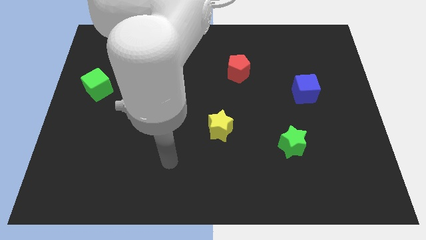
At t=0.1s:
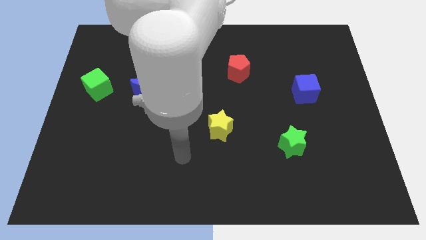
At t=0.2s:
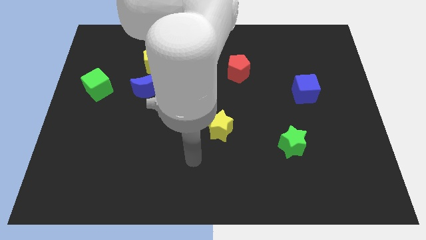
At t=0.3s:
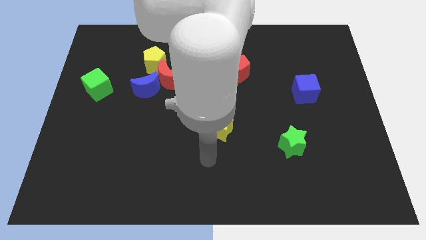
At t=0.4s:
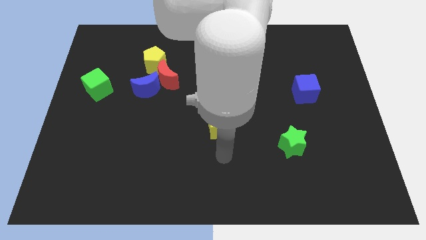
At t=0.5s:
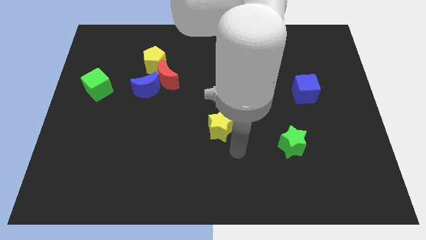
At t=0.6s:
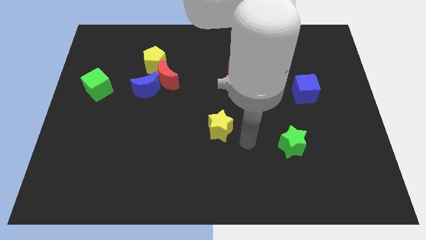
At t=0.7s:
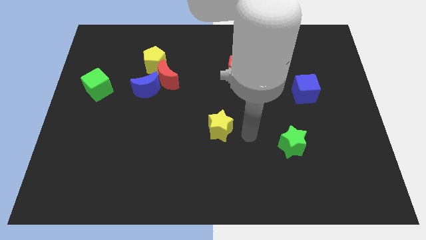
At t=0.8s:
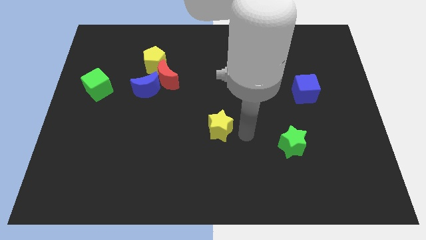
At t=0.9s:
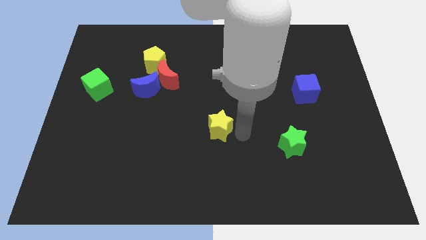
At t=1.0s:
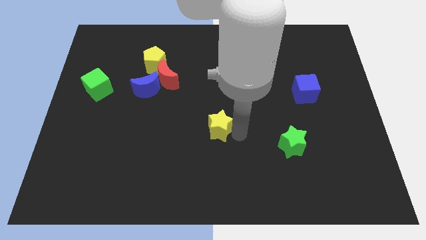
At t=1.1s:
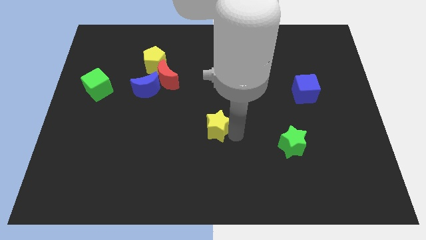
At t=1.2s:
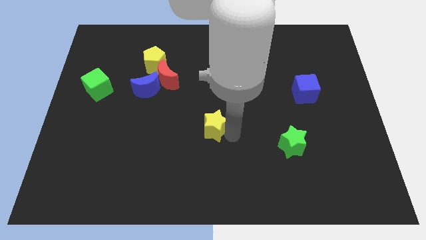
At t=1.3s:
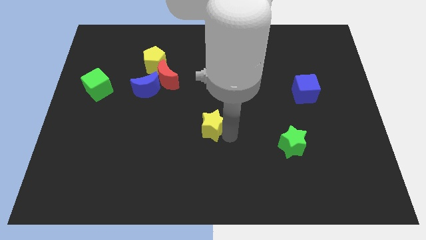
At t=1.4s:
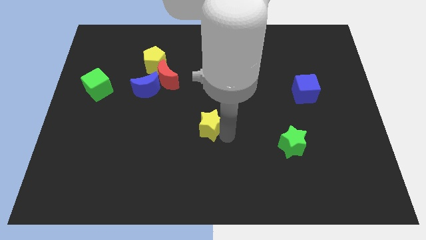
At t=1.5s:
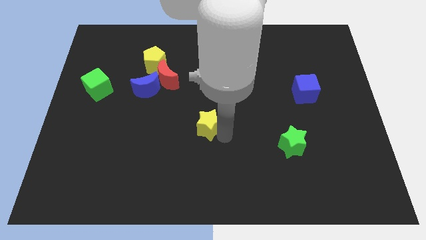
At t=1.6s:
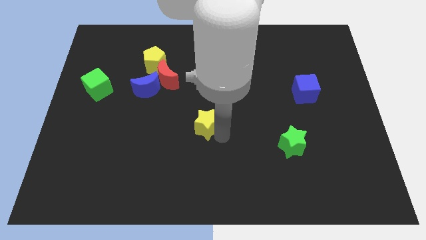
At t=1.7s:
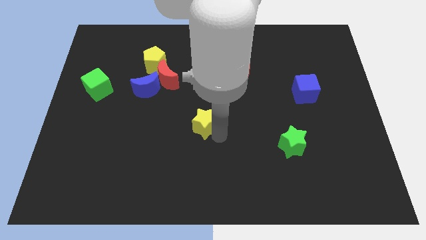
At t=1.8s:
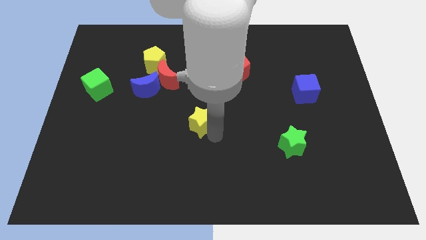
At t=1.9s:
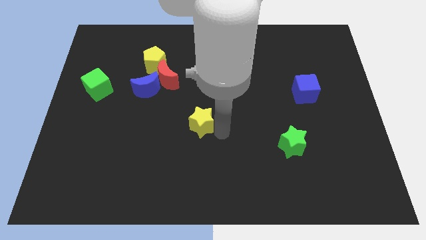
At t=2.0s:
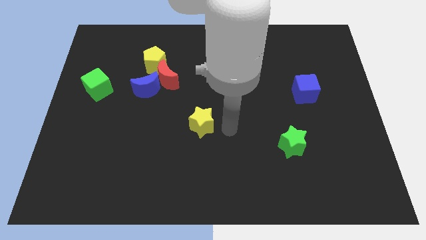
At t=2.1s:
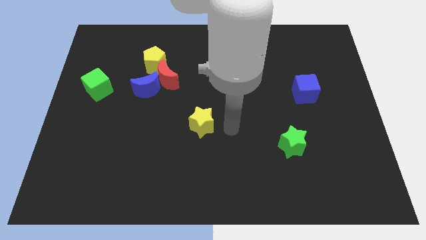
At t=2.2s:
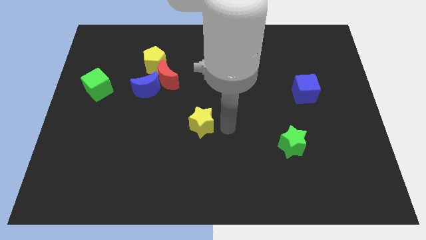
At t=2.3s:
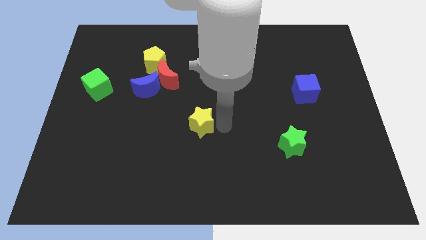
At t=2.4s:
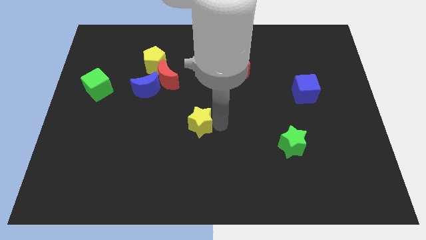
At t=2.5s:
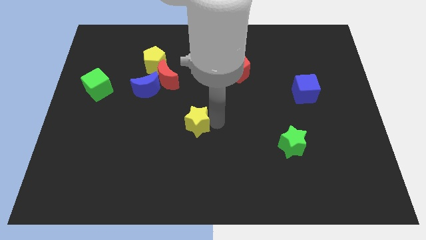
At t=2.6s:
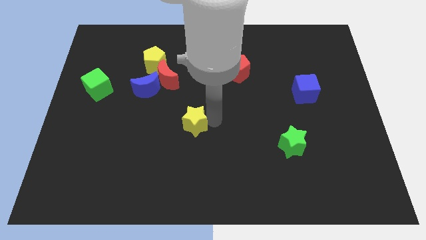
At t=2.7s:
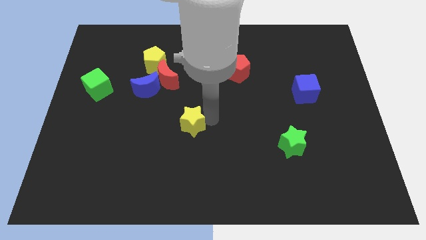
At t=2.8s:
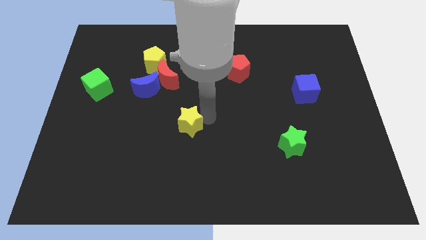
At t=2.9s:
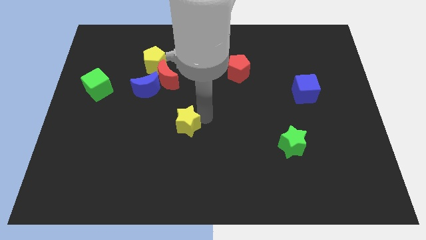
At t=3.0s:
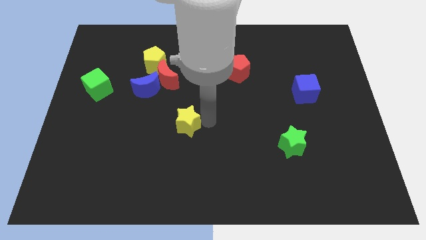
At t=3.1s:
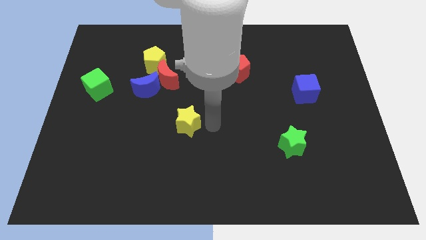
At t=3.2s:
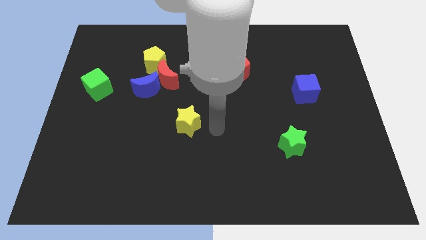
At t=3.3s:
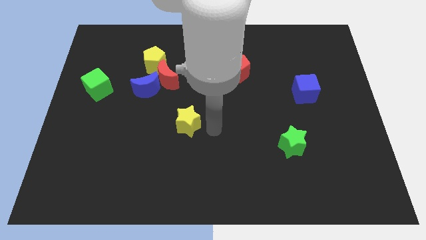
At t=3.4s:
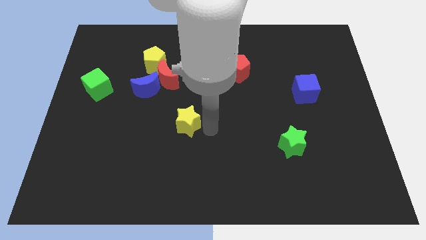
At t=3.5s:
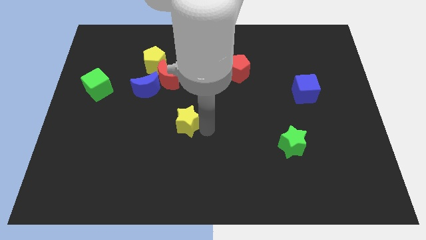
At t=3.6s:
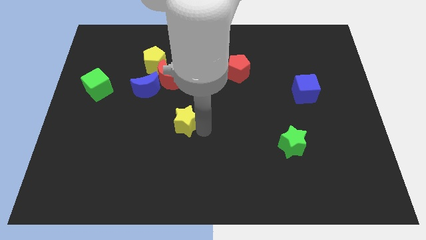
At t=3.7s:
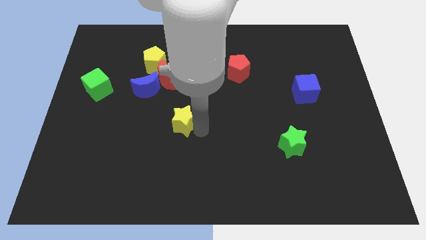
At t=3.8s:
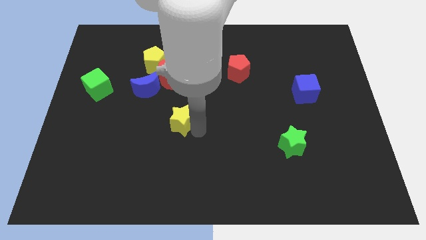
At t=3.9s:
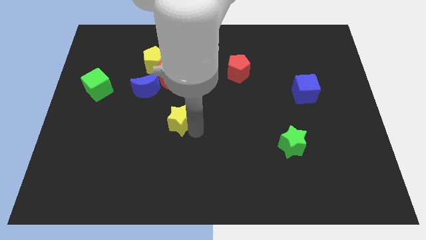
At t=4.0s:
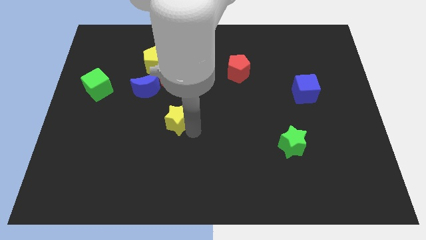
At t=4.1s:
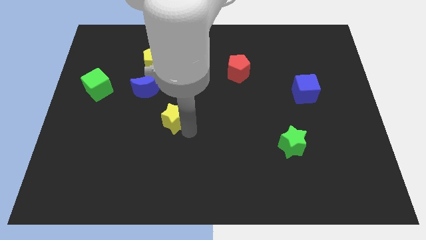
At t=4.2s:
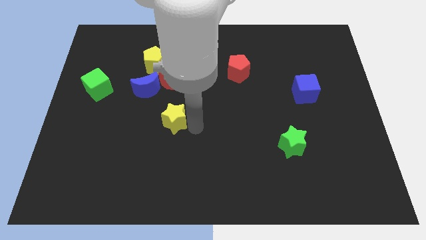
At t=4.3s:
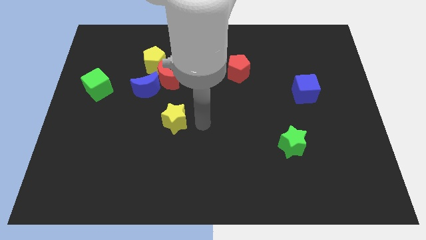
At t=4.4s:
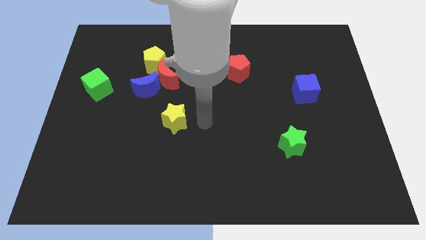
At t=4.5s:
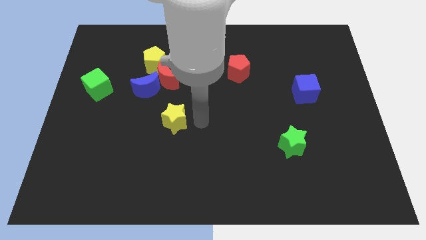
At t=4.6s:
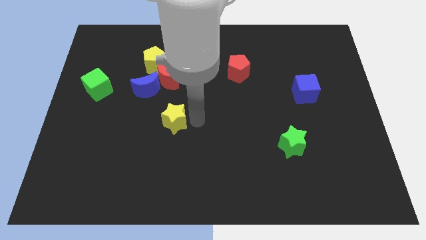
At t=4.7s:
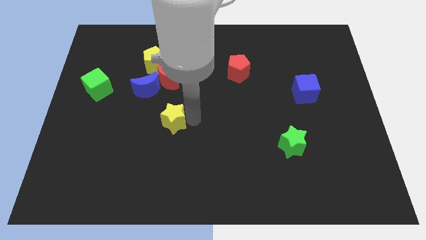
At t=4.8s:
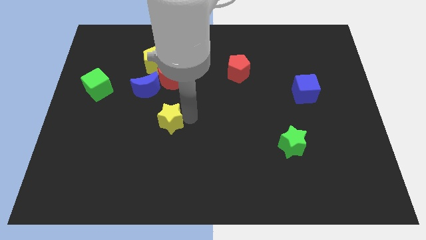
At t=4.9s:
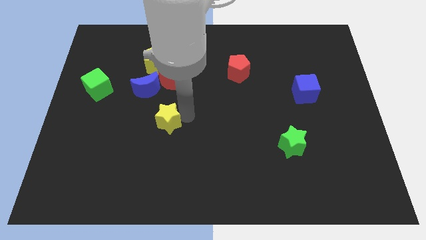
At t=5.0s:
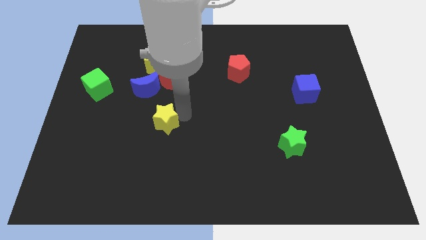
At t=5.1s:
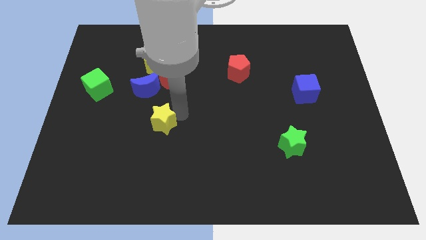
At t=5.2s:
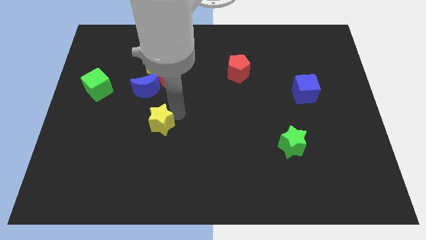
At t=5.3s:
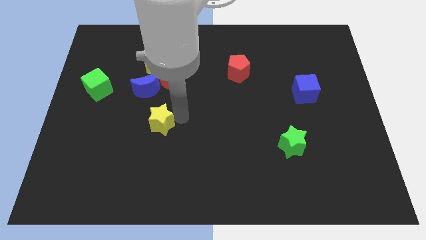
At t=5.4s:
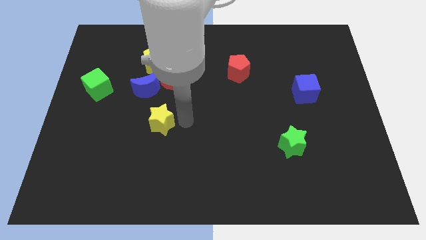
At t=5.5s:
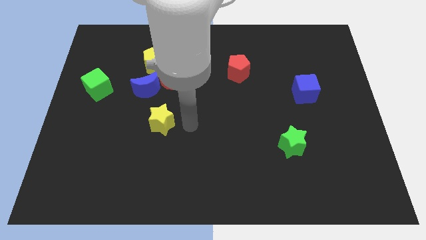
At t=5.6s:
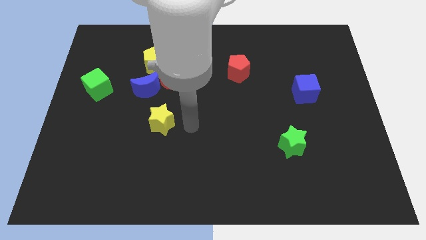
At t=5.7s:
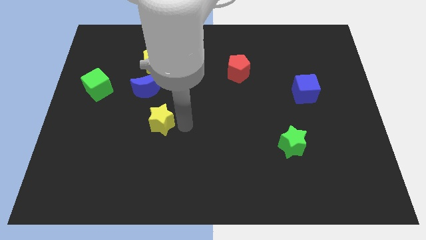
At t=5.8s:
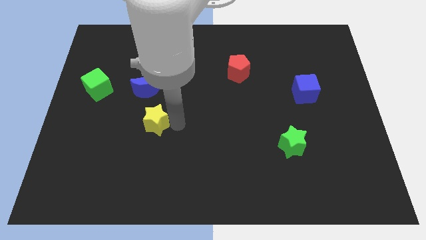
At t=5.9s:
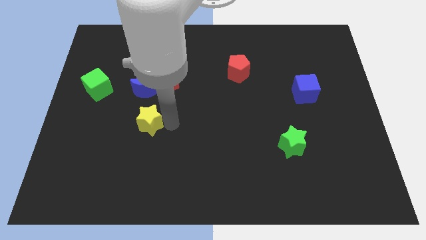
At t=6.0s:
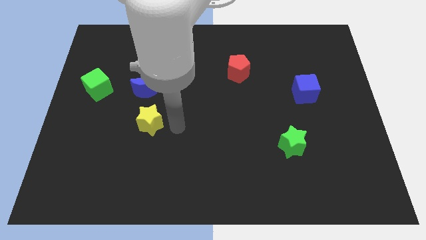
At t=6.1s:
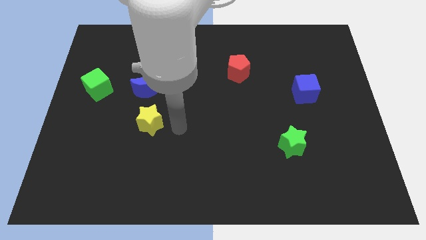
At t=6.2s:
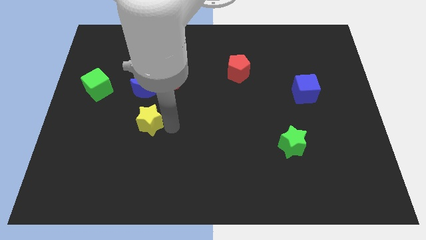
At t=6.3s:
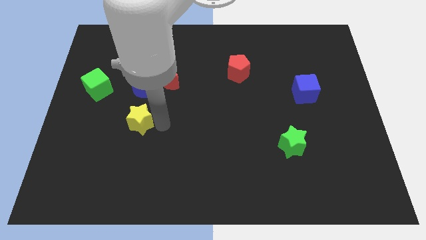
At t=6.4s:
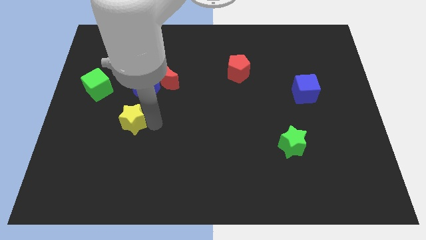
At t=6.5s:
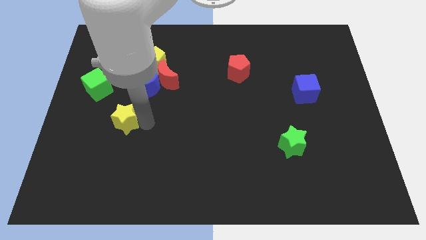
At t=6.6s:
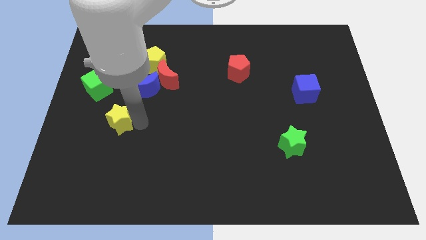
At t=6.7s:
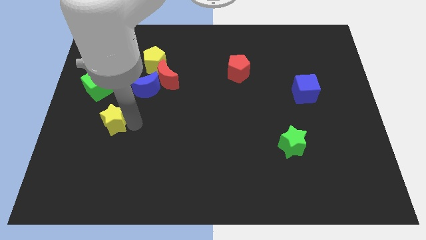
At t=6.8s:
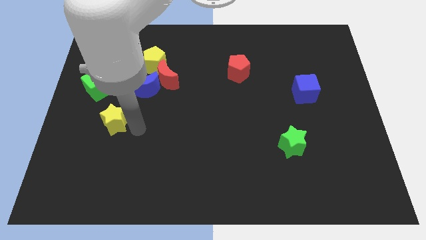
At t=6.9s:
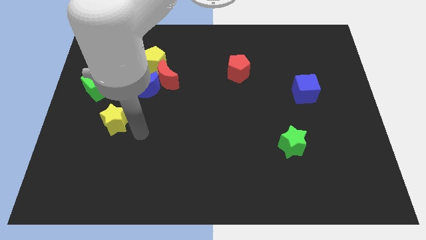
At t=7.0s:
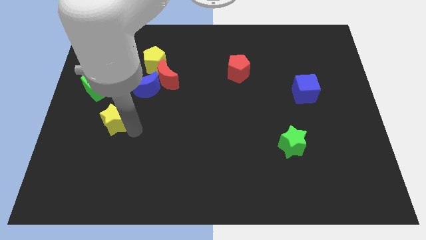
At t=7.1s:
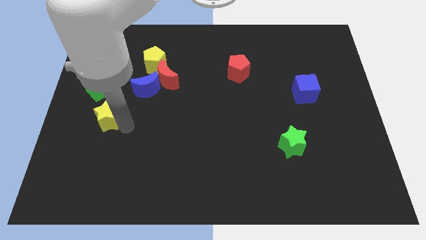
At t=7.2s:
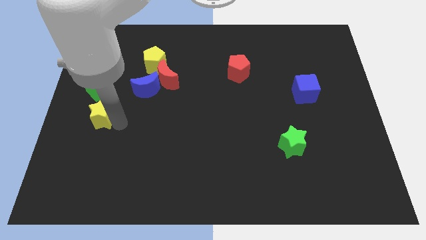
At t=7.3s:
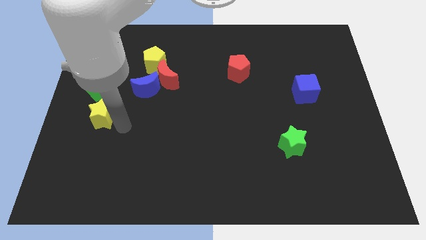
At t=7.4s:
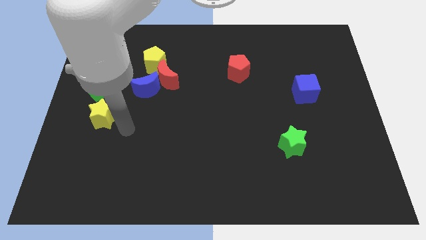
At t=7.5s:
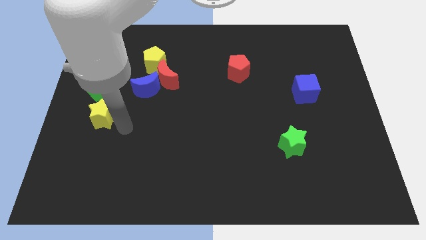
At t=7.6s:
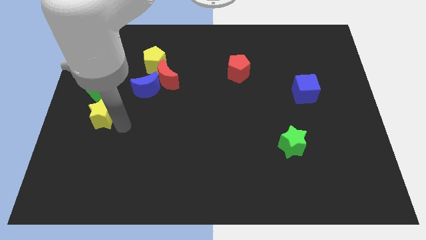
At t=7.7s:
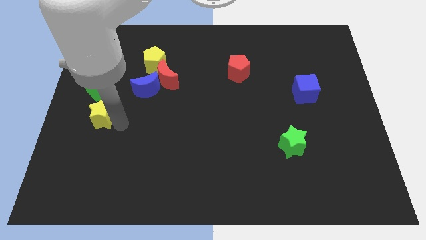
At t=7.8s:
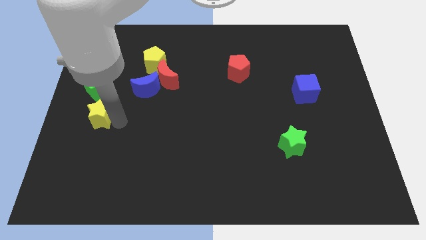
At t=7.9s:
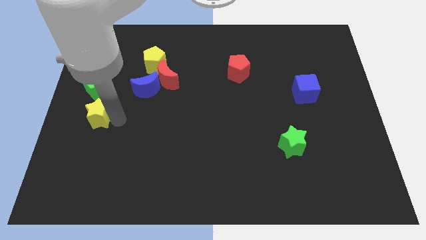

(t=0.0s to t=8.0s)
push the yellow star to the left side
